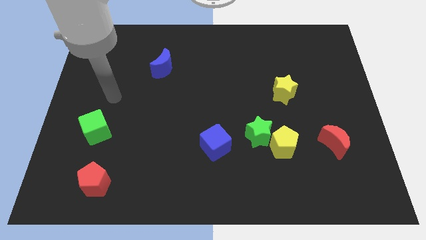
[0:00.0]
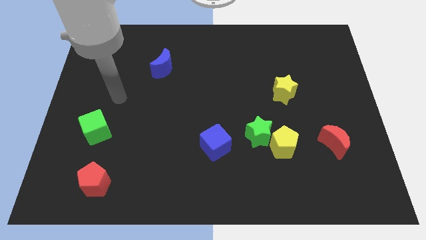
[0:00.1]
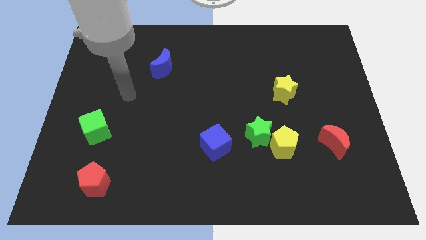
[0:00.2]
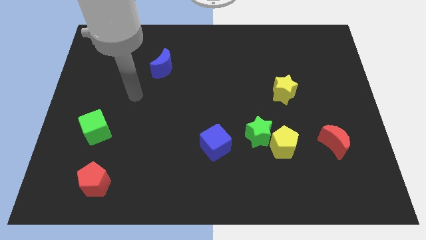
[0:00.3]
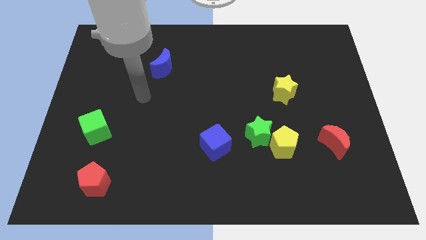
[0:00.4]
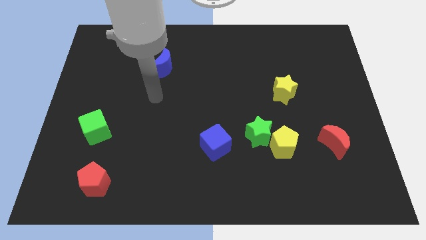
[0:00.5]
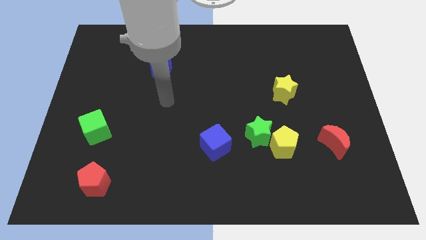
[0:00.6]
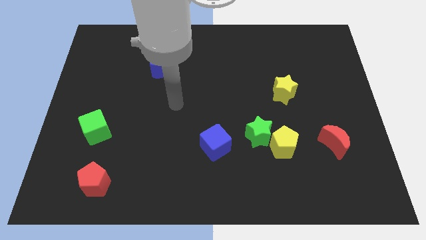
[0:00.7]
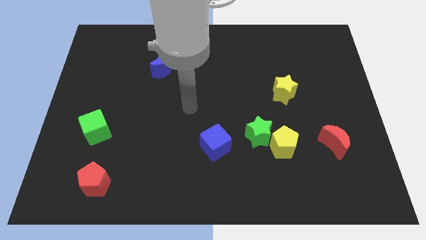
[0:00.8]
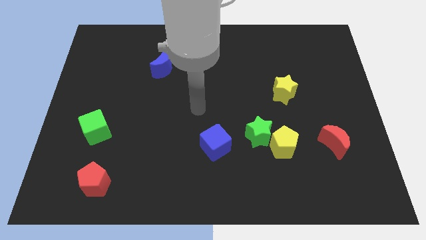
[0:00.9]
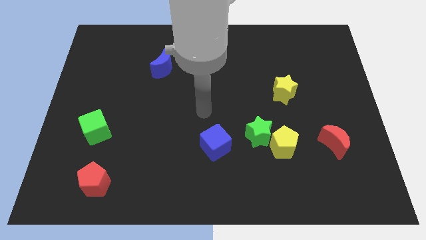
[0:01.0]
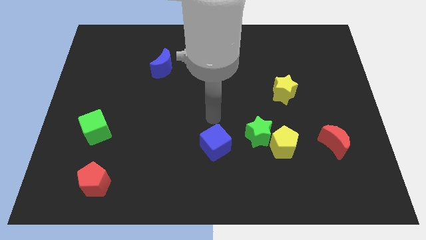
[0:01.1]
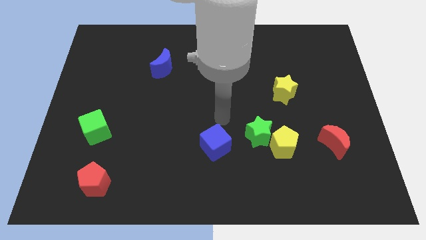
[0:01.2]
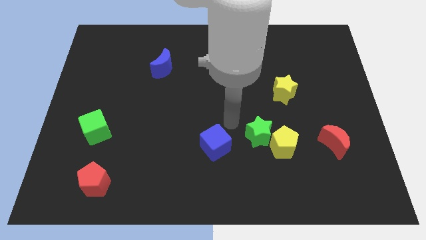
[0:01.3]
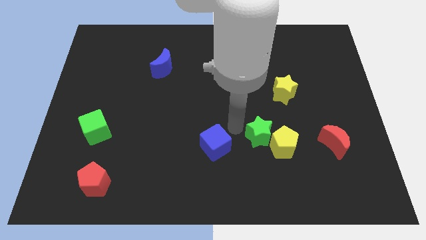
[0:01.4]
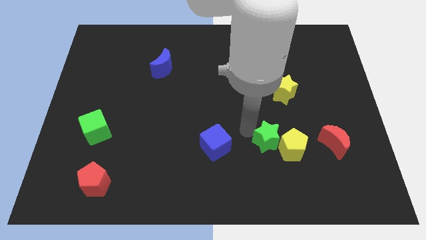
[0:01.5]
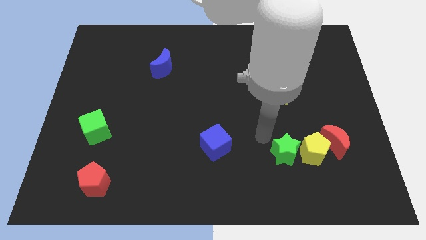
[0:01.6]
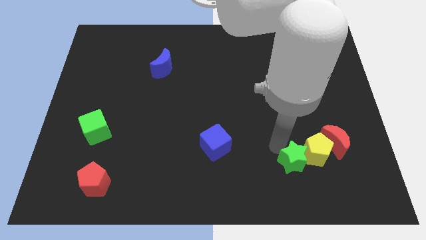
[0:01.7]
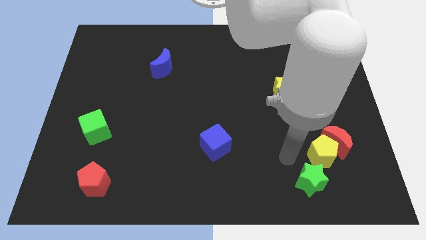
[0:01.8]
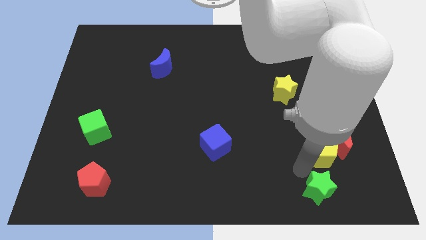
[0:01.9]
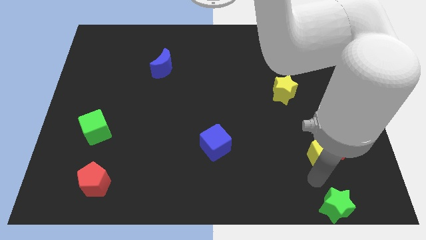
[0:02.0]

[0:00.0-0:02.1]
move the yellow pentagon away from the green star

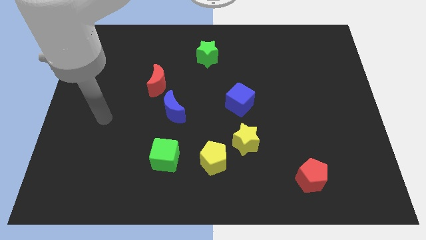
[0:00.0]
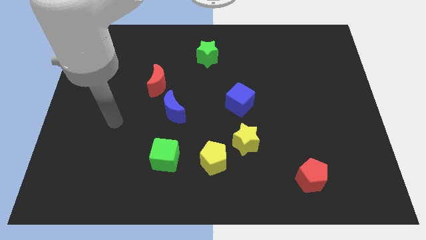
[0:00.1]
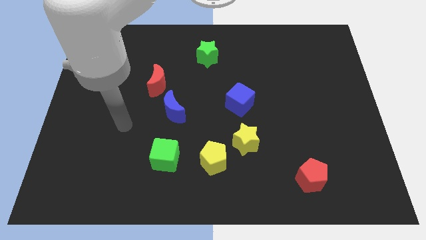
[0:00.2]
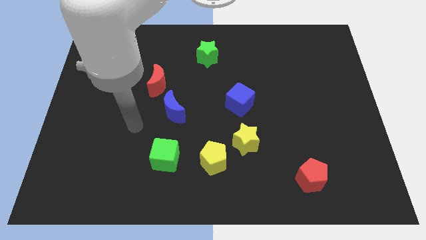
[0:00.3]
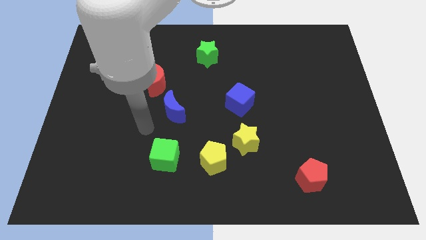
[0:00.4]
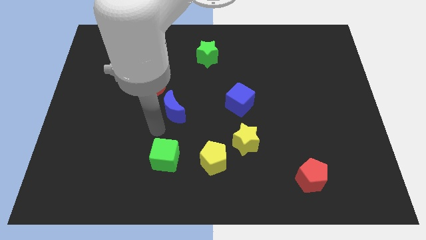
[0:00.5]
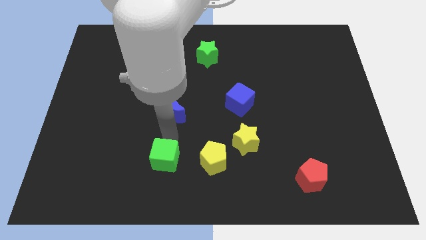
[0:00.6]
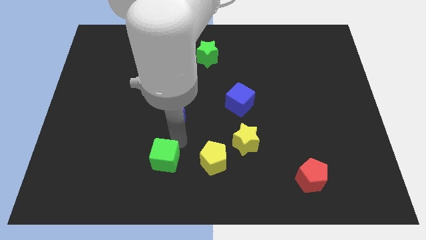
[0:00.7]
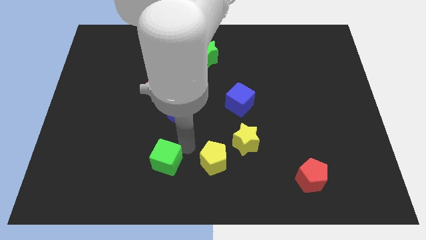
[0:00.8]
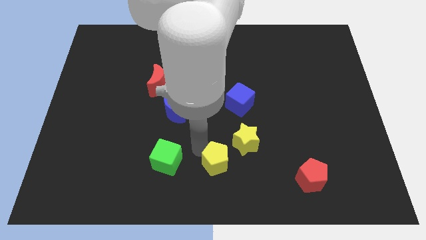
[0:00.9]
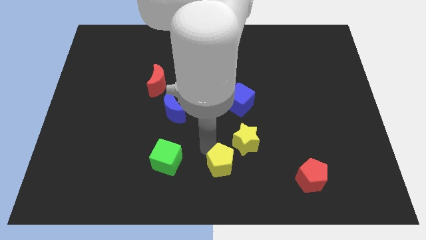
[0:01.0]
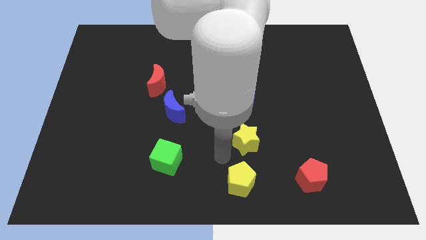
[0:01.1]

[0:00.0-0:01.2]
pull the yellow star apart from the yellow pentagon

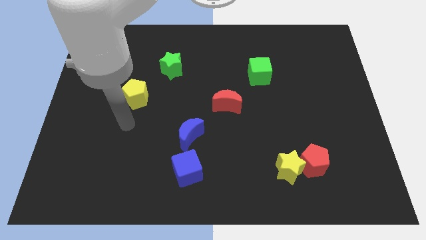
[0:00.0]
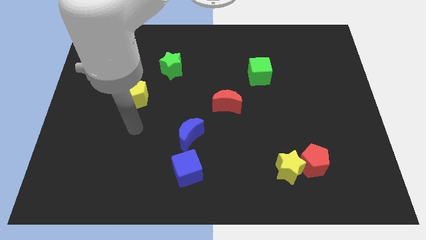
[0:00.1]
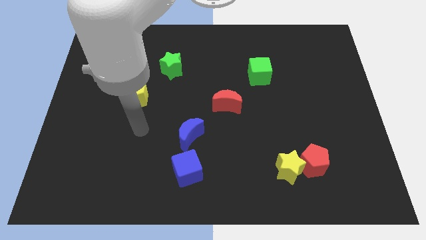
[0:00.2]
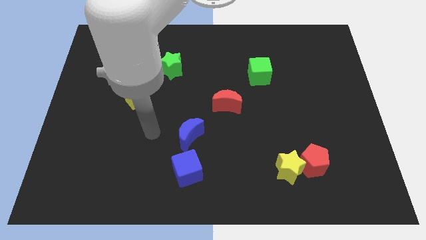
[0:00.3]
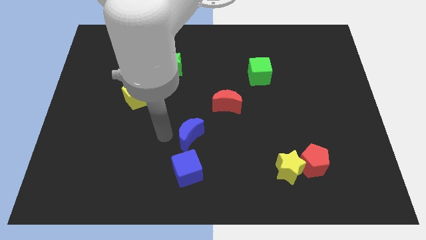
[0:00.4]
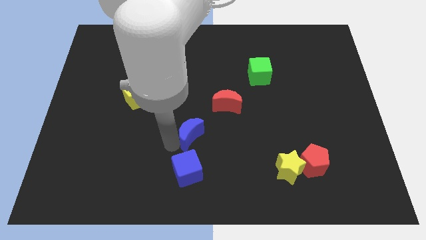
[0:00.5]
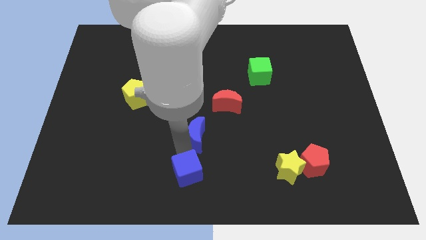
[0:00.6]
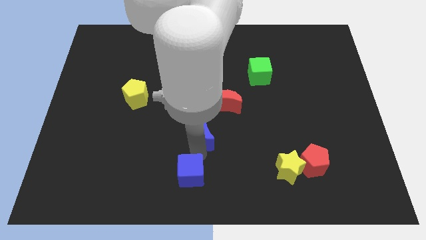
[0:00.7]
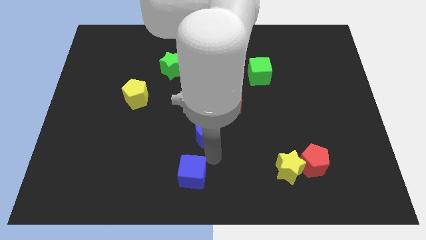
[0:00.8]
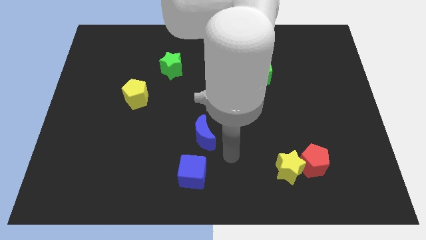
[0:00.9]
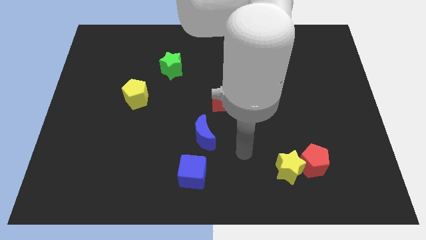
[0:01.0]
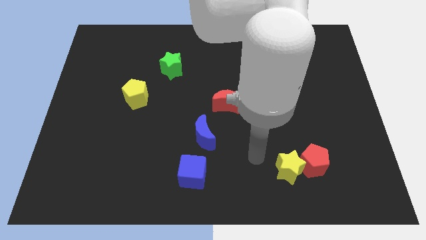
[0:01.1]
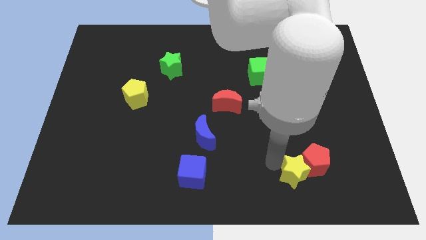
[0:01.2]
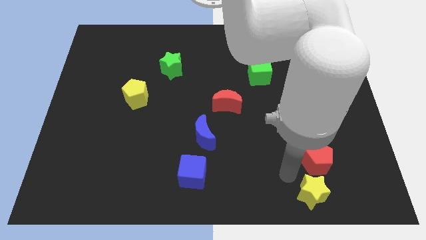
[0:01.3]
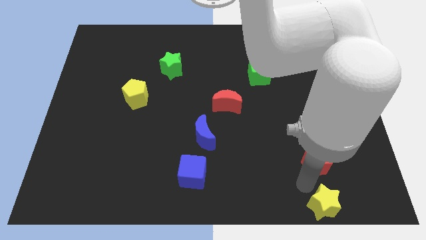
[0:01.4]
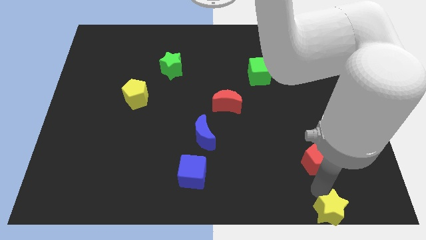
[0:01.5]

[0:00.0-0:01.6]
move the red pentagon away from the yellow star

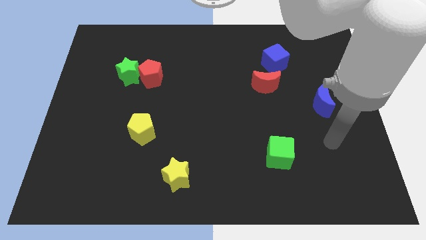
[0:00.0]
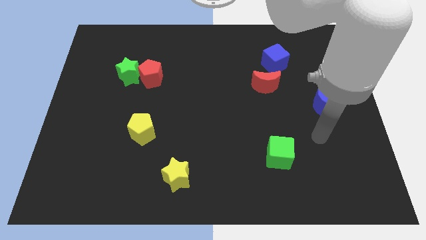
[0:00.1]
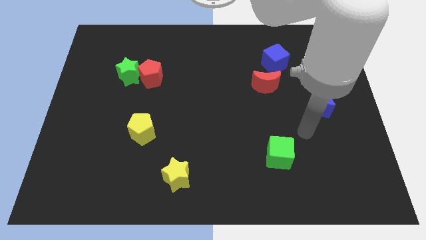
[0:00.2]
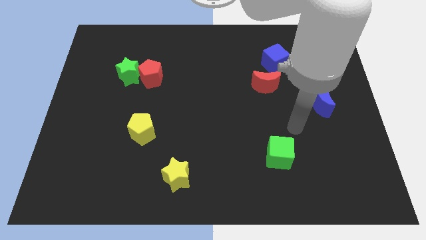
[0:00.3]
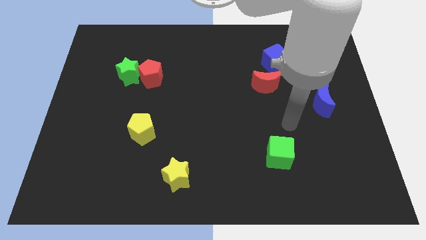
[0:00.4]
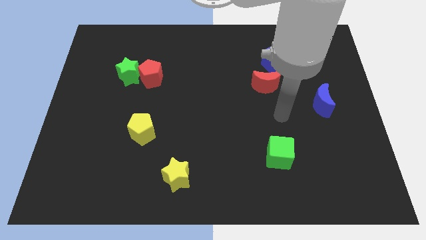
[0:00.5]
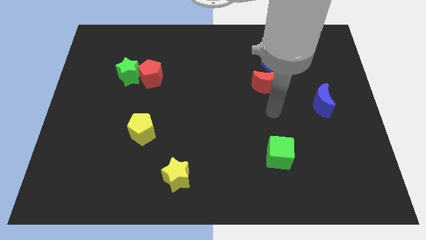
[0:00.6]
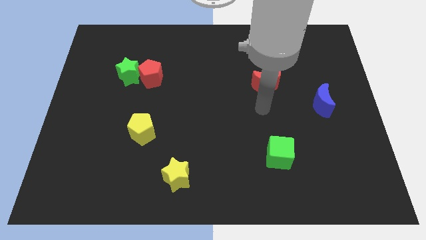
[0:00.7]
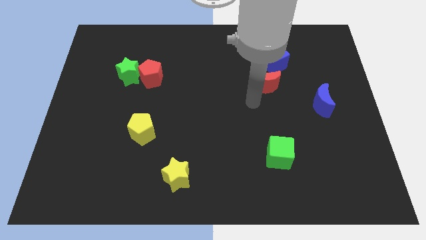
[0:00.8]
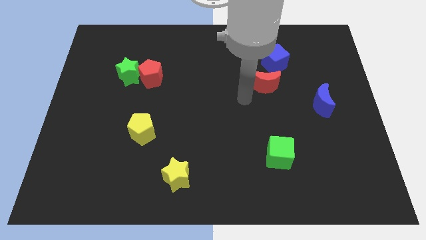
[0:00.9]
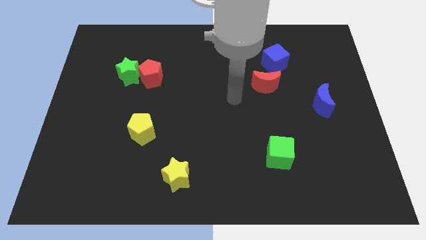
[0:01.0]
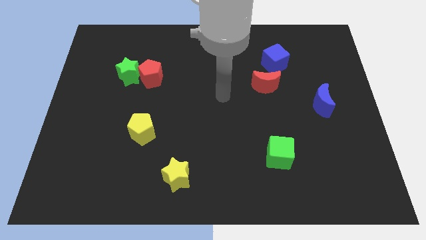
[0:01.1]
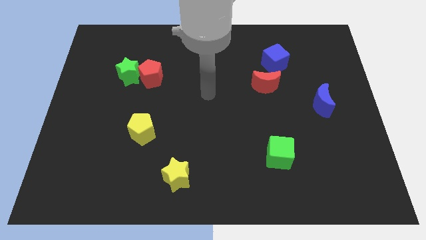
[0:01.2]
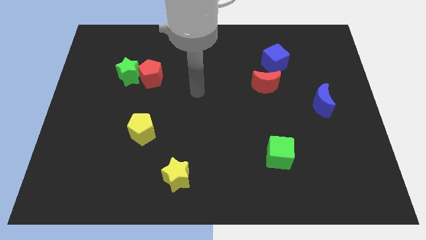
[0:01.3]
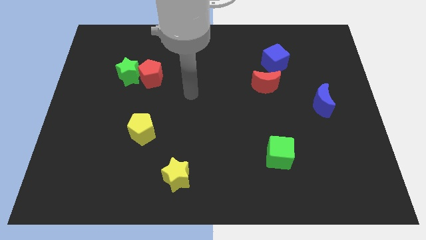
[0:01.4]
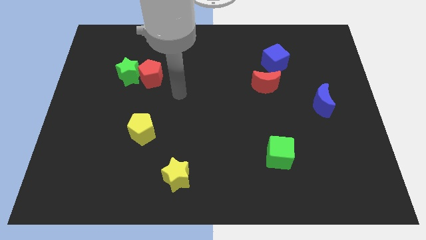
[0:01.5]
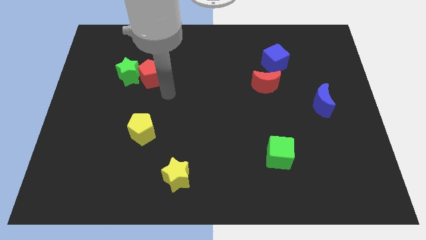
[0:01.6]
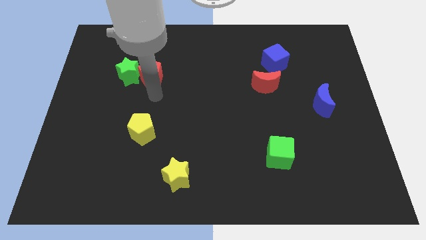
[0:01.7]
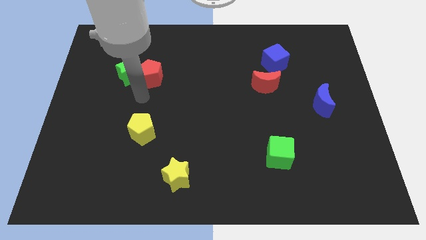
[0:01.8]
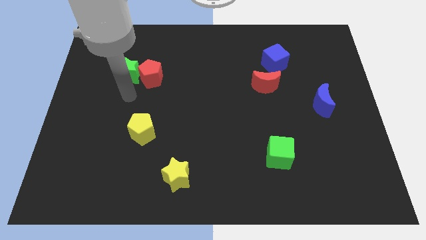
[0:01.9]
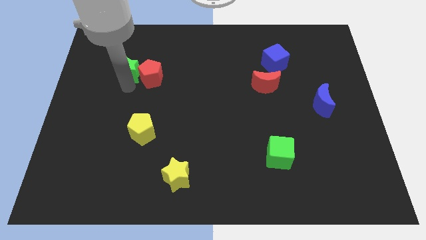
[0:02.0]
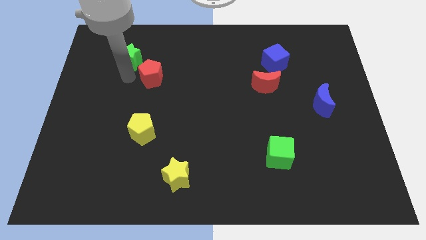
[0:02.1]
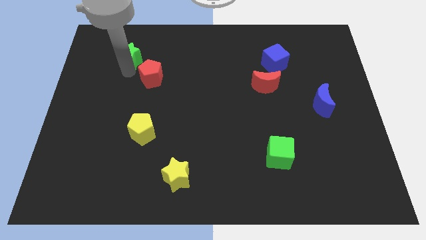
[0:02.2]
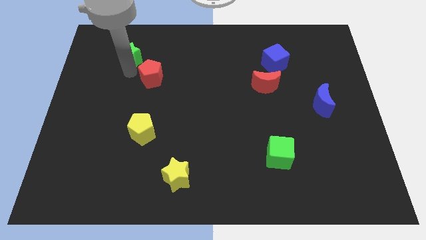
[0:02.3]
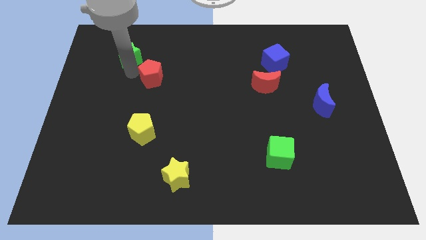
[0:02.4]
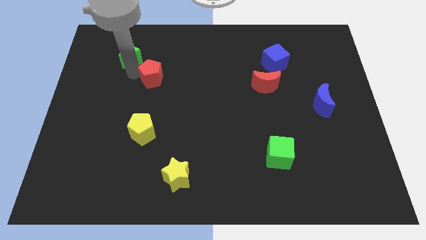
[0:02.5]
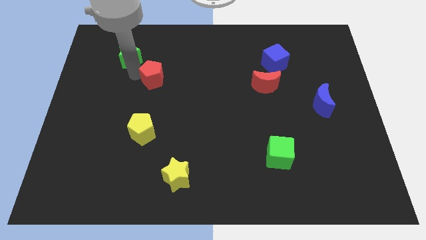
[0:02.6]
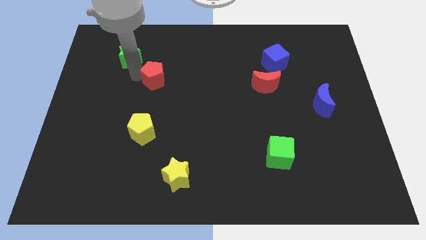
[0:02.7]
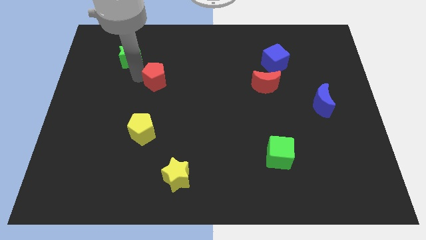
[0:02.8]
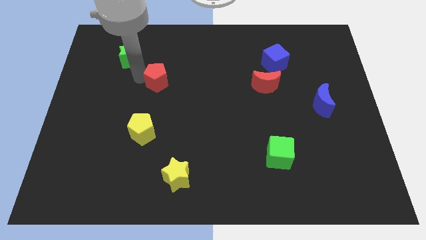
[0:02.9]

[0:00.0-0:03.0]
pull the red pentagon apart from the green star

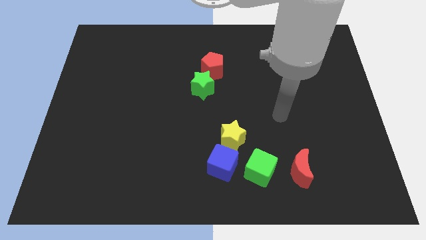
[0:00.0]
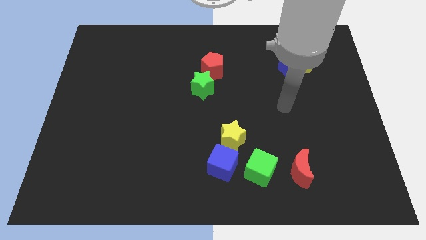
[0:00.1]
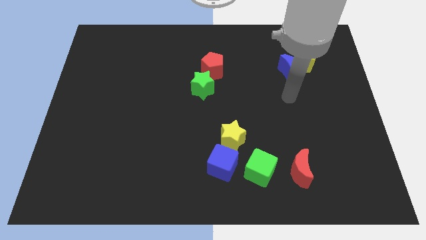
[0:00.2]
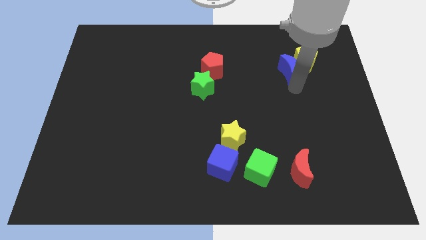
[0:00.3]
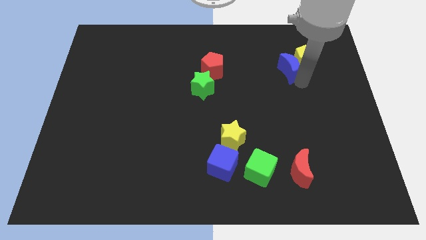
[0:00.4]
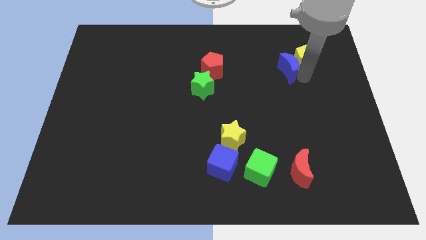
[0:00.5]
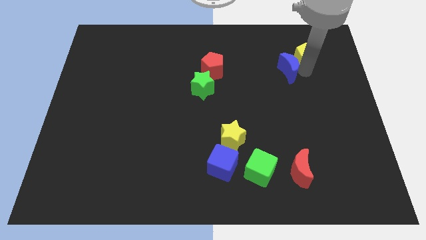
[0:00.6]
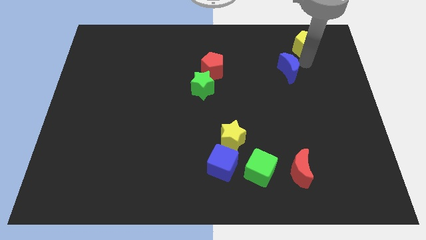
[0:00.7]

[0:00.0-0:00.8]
move the blue moon away from the yellow pentagon

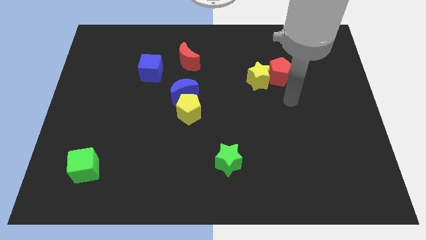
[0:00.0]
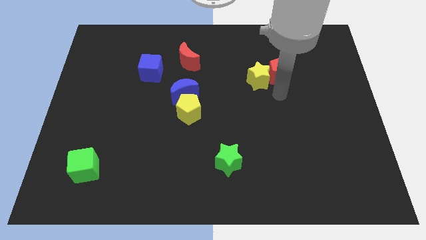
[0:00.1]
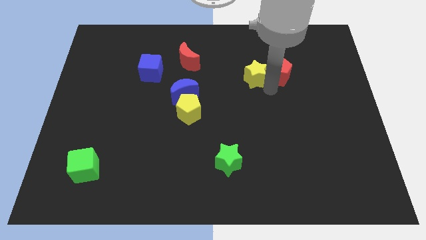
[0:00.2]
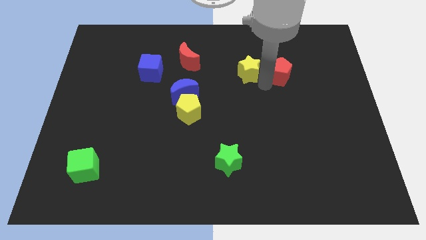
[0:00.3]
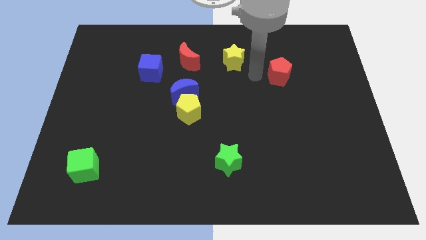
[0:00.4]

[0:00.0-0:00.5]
pull the red pentagon apart from the yellow star

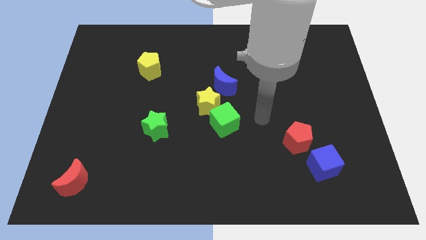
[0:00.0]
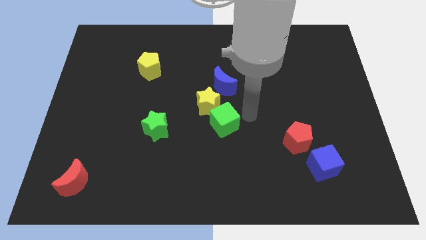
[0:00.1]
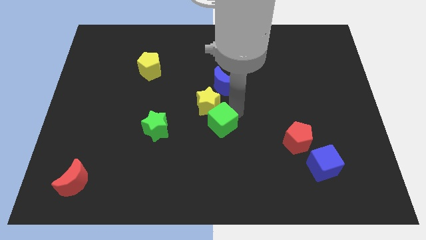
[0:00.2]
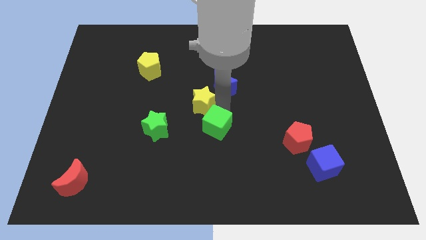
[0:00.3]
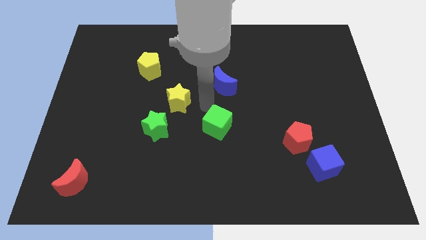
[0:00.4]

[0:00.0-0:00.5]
separate the green cube from the yellow star
